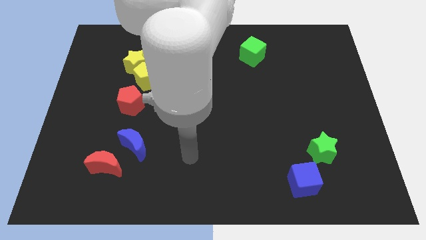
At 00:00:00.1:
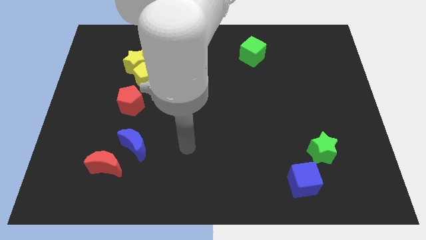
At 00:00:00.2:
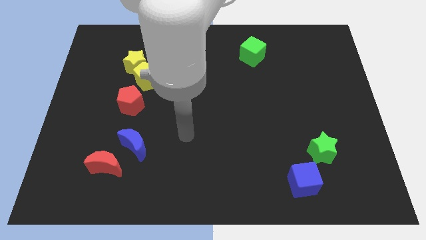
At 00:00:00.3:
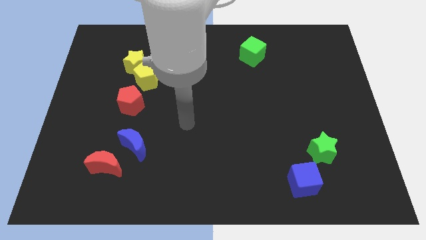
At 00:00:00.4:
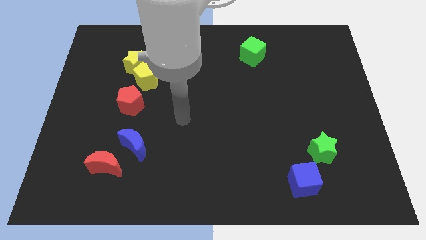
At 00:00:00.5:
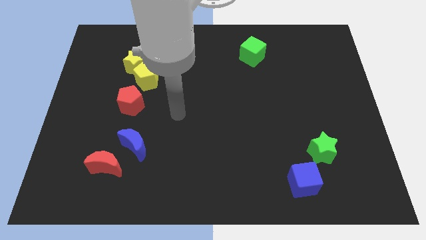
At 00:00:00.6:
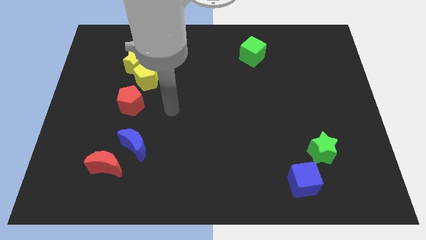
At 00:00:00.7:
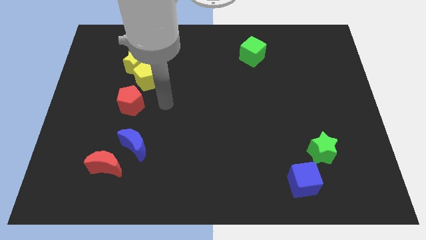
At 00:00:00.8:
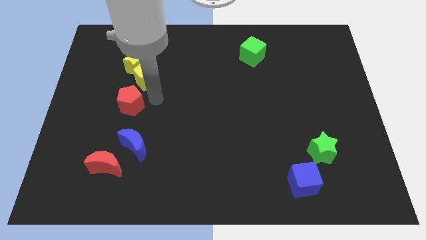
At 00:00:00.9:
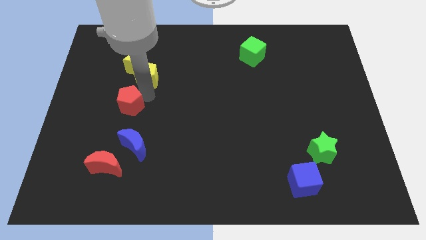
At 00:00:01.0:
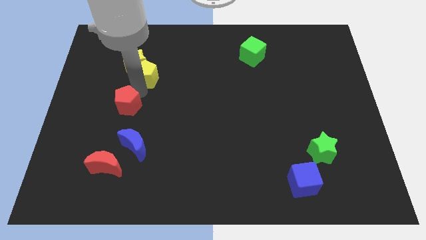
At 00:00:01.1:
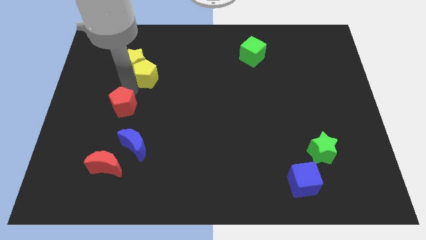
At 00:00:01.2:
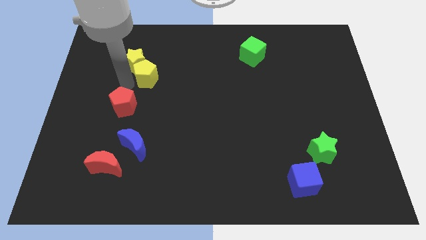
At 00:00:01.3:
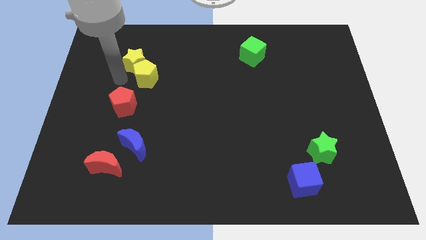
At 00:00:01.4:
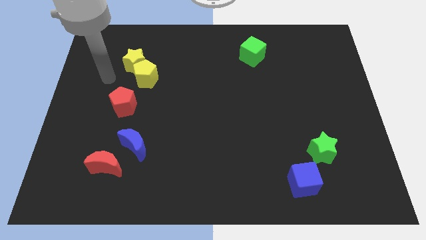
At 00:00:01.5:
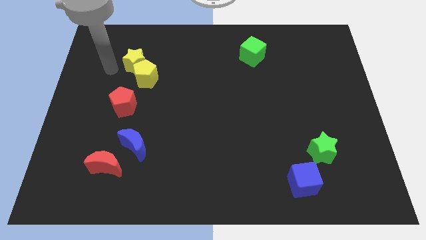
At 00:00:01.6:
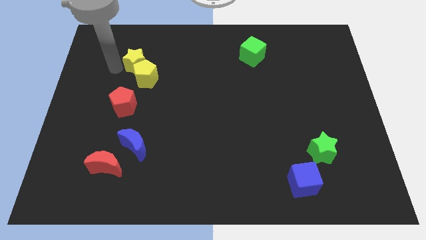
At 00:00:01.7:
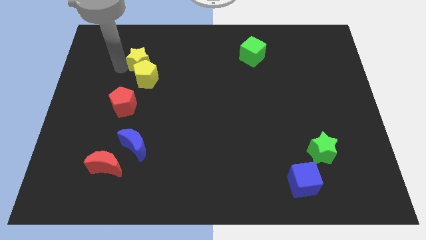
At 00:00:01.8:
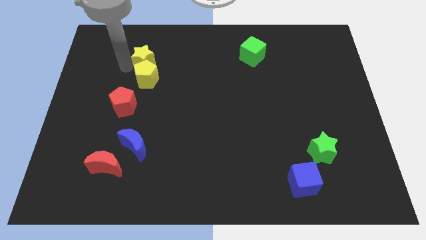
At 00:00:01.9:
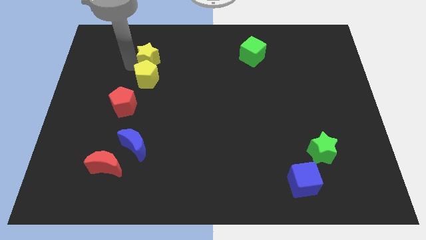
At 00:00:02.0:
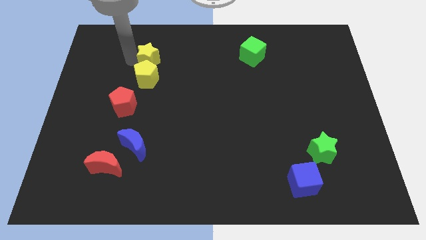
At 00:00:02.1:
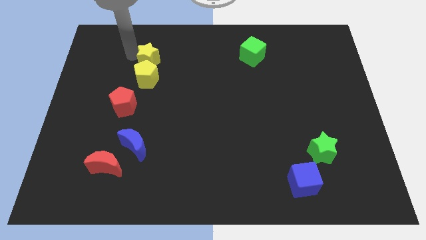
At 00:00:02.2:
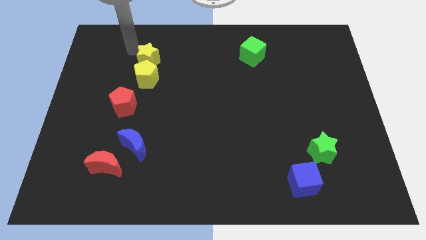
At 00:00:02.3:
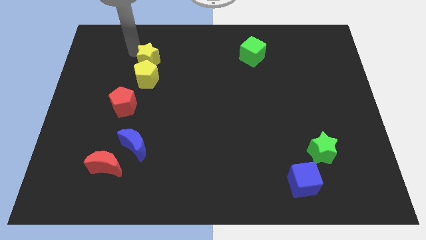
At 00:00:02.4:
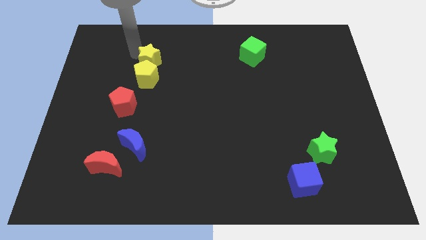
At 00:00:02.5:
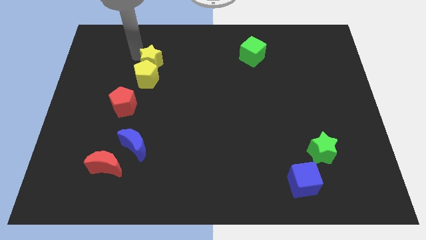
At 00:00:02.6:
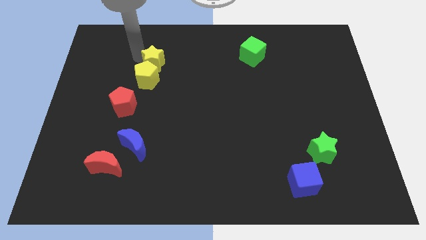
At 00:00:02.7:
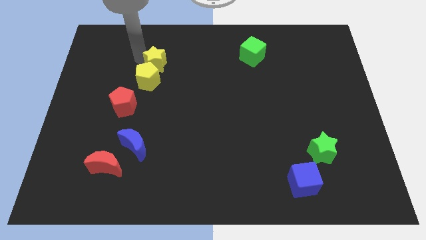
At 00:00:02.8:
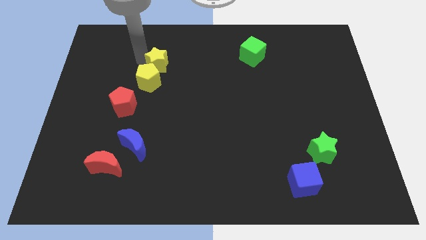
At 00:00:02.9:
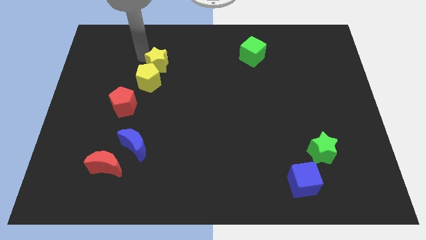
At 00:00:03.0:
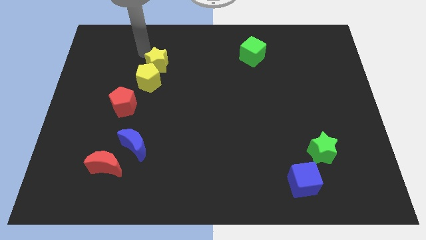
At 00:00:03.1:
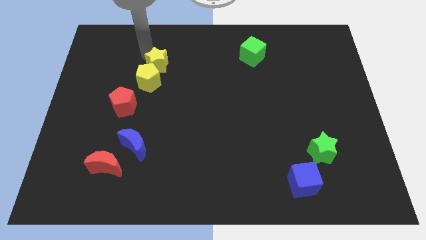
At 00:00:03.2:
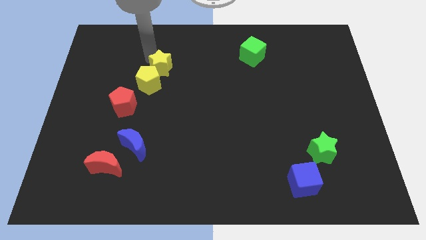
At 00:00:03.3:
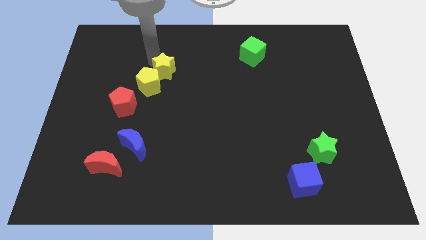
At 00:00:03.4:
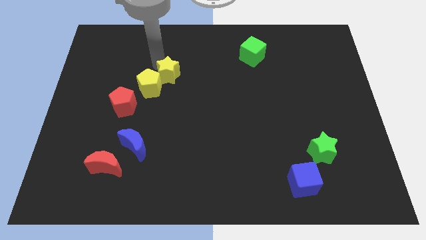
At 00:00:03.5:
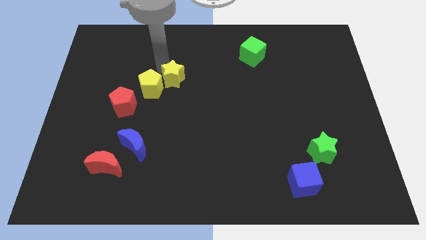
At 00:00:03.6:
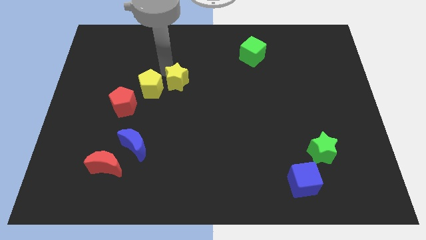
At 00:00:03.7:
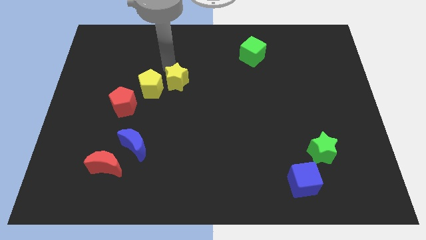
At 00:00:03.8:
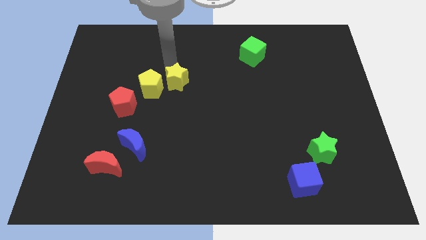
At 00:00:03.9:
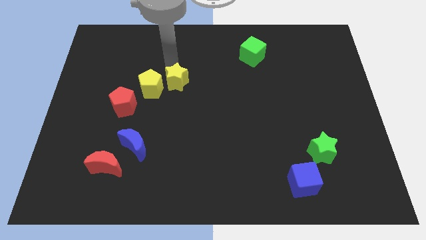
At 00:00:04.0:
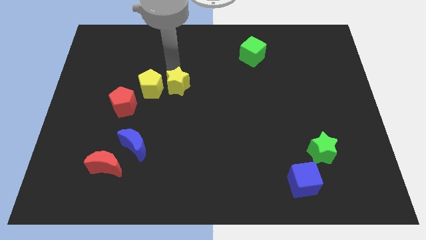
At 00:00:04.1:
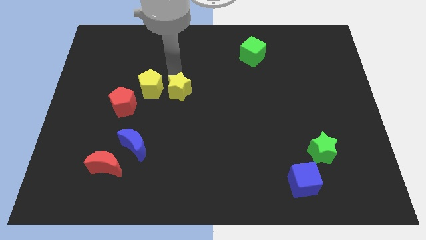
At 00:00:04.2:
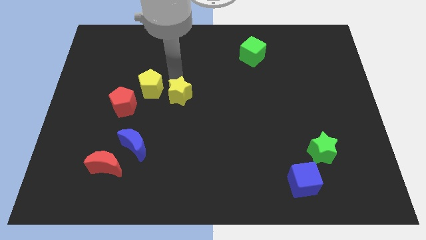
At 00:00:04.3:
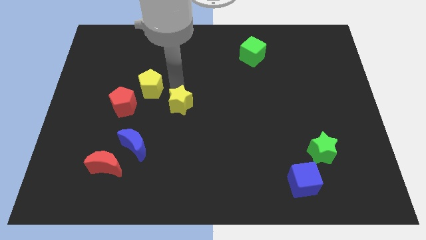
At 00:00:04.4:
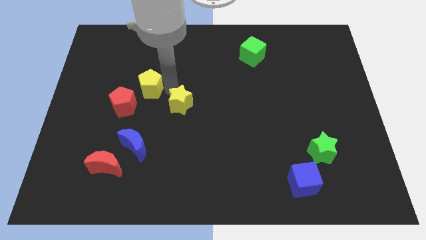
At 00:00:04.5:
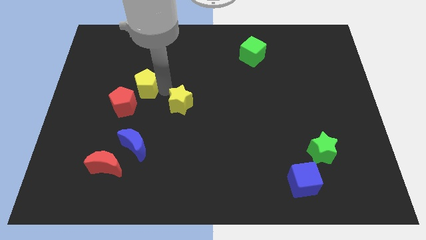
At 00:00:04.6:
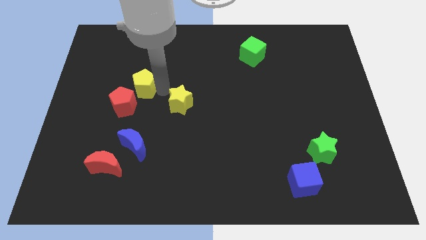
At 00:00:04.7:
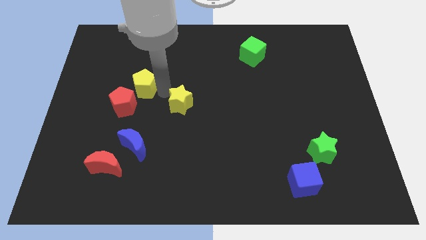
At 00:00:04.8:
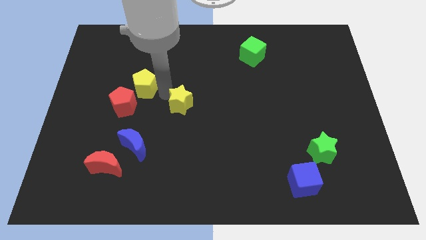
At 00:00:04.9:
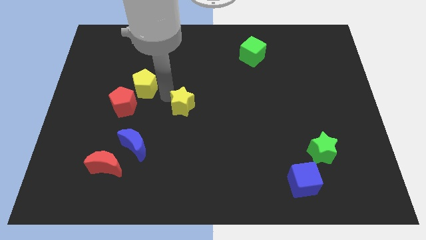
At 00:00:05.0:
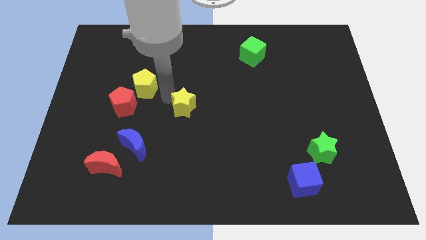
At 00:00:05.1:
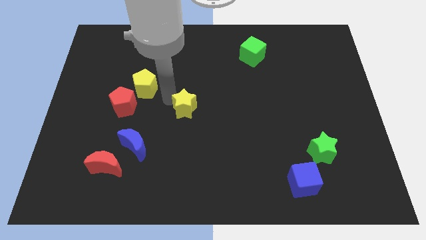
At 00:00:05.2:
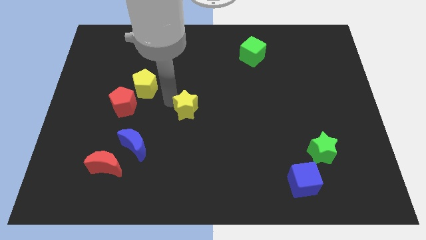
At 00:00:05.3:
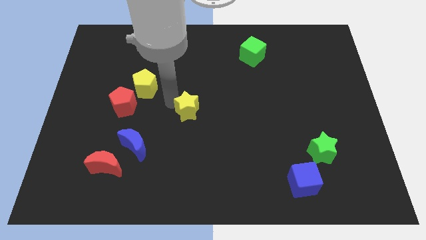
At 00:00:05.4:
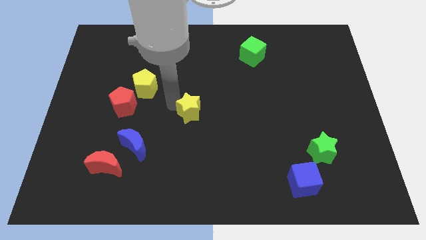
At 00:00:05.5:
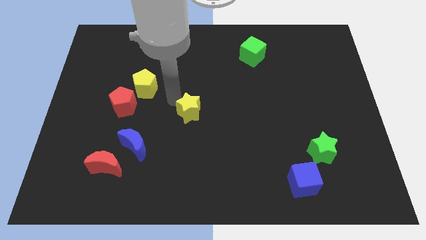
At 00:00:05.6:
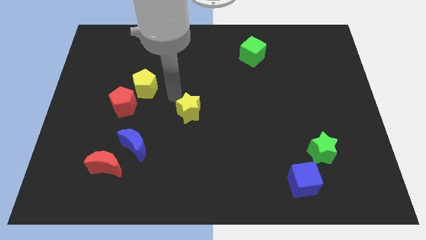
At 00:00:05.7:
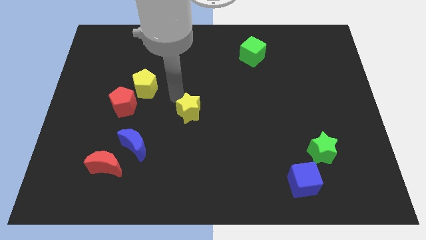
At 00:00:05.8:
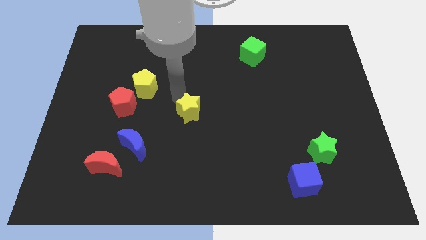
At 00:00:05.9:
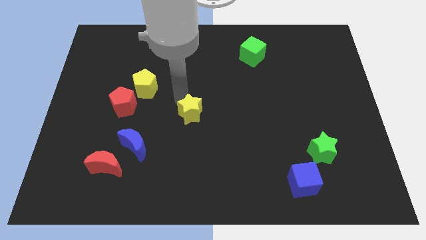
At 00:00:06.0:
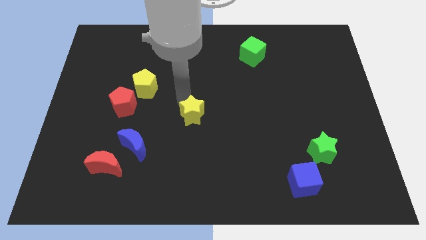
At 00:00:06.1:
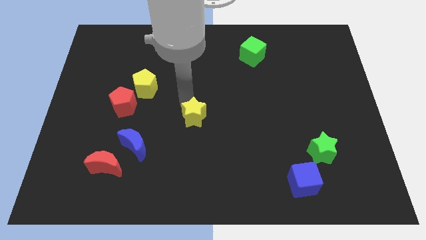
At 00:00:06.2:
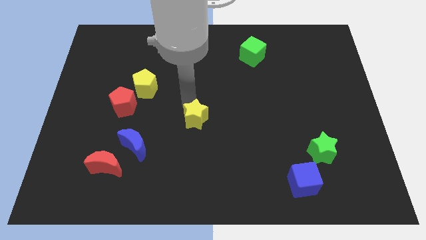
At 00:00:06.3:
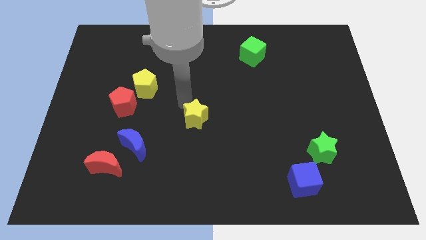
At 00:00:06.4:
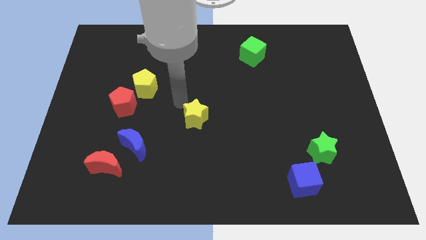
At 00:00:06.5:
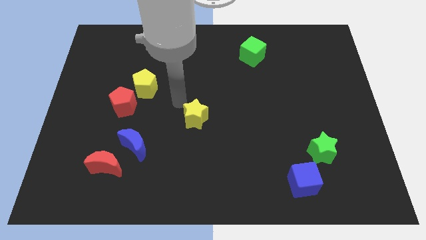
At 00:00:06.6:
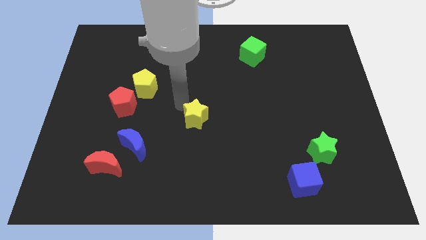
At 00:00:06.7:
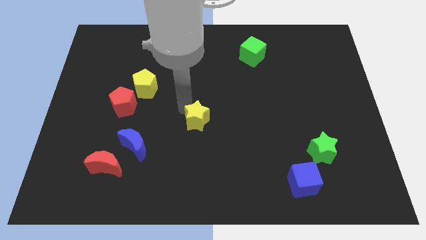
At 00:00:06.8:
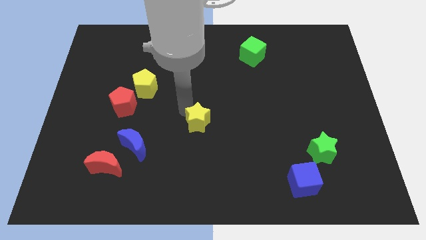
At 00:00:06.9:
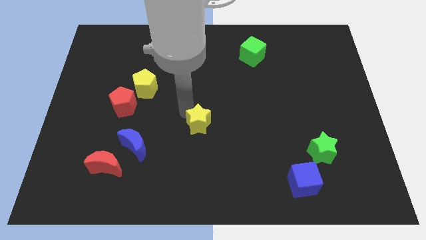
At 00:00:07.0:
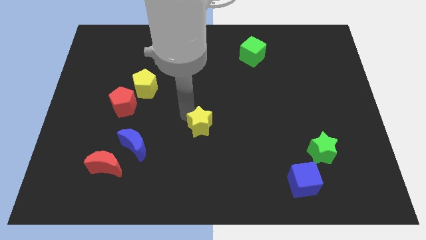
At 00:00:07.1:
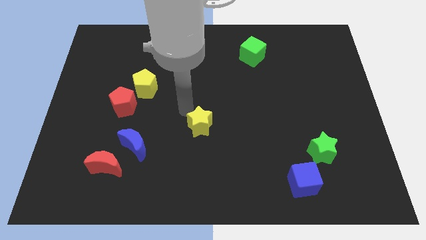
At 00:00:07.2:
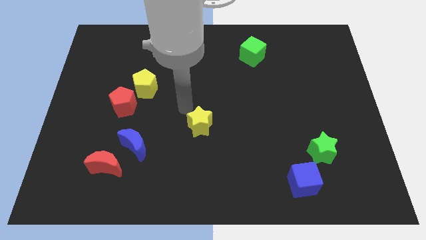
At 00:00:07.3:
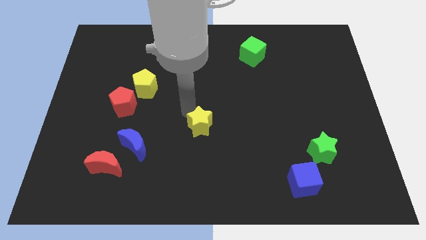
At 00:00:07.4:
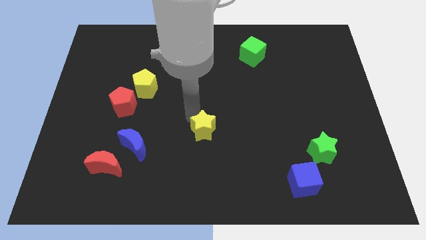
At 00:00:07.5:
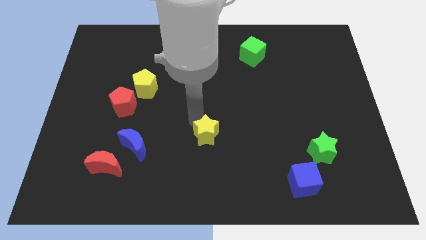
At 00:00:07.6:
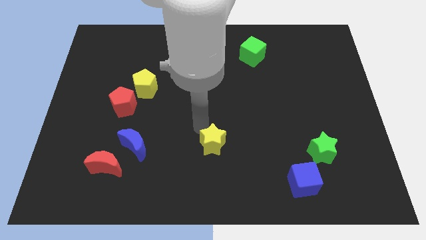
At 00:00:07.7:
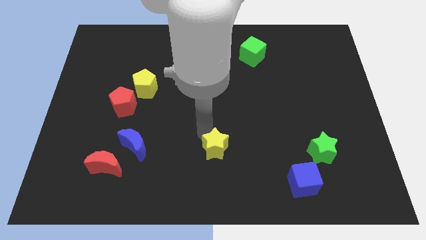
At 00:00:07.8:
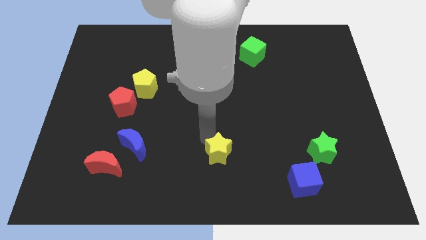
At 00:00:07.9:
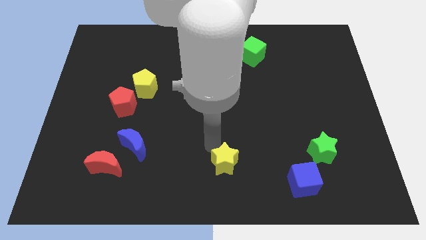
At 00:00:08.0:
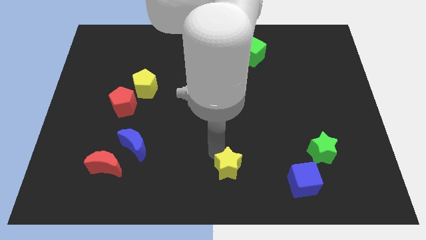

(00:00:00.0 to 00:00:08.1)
move the yellow star to the left of the blue cube
